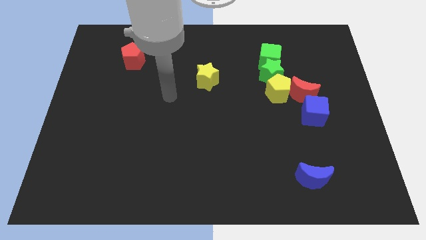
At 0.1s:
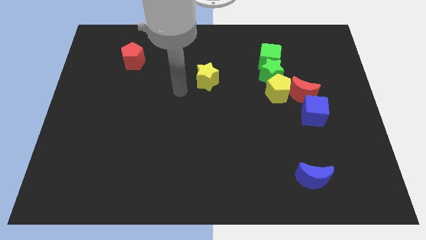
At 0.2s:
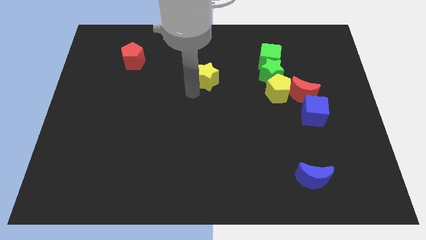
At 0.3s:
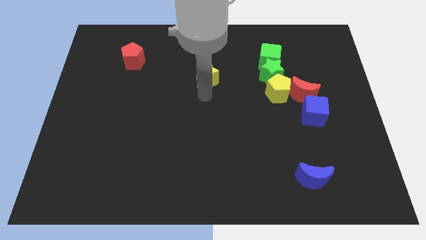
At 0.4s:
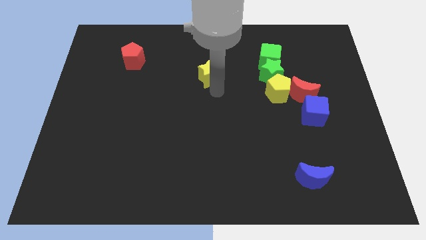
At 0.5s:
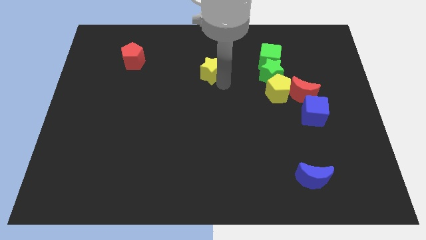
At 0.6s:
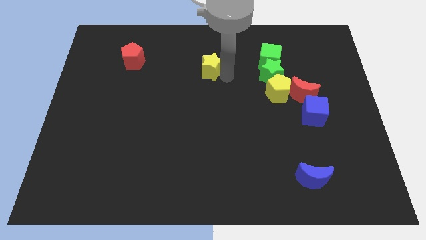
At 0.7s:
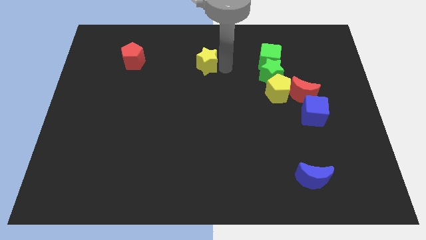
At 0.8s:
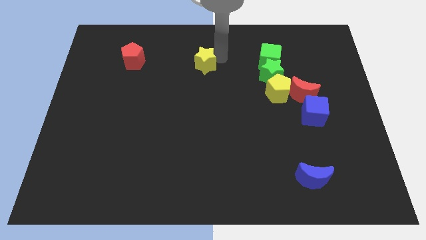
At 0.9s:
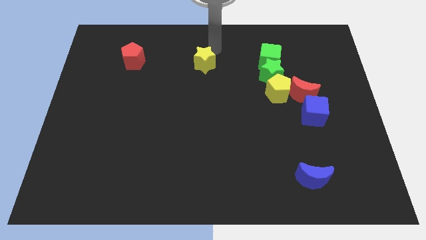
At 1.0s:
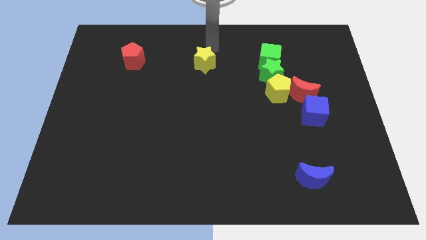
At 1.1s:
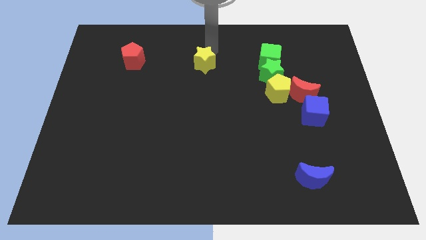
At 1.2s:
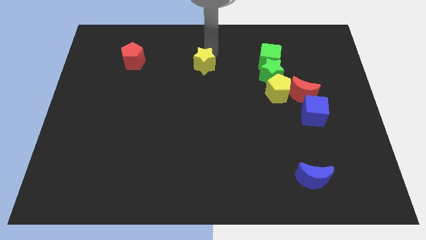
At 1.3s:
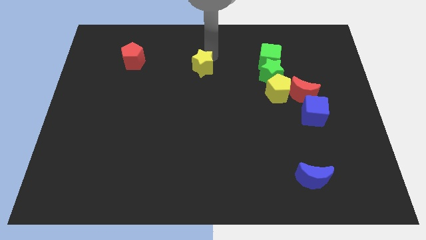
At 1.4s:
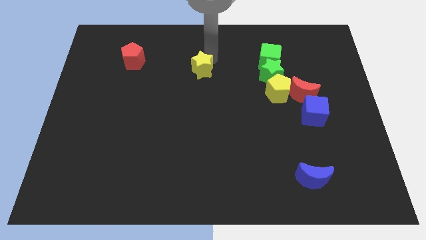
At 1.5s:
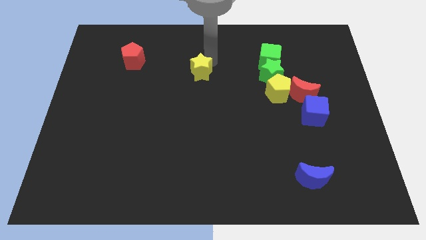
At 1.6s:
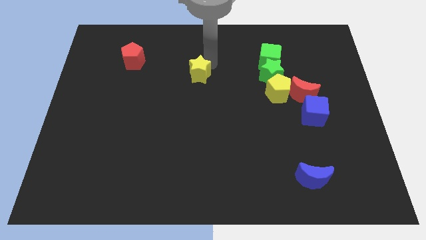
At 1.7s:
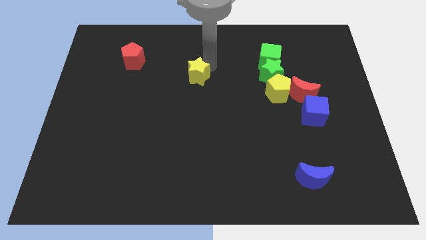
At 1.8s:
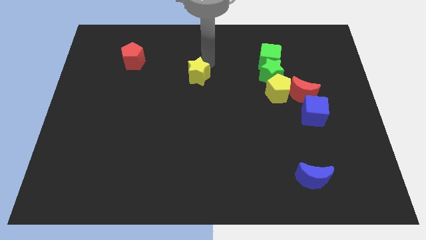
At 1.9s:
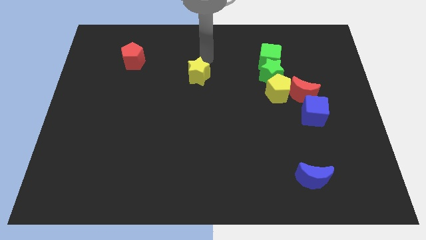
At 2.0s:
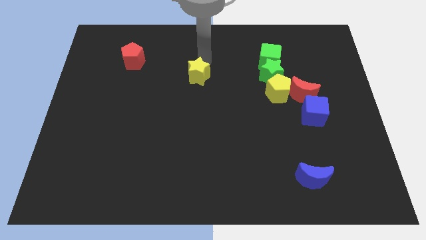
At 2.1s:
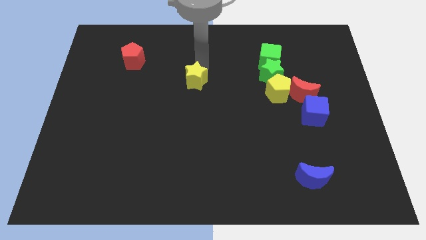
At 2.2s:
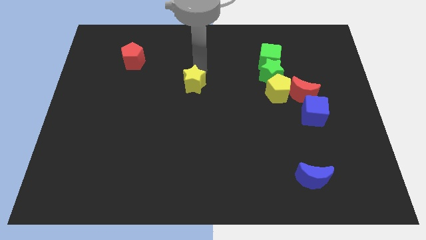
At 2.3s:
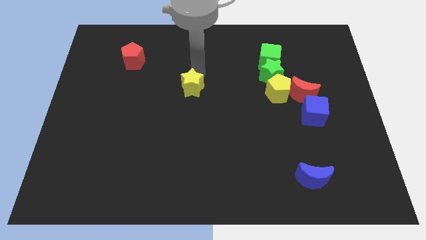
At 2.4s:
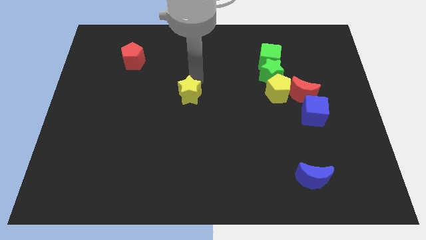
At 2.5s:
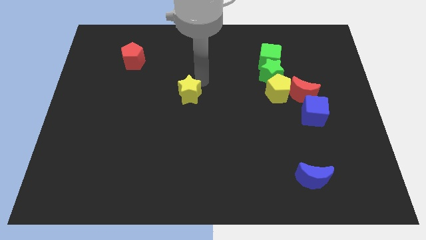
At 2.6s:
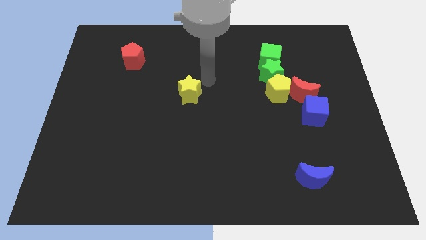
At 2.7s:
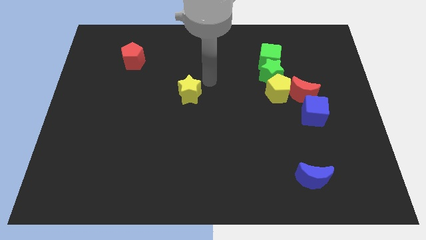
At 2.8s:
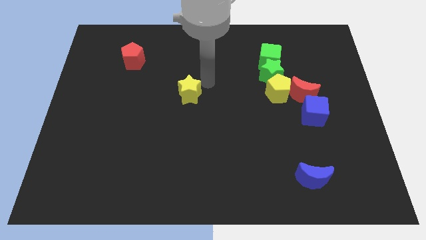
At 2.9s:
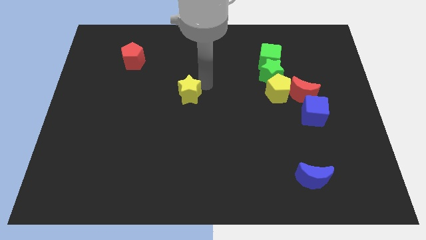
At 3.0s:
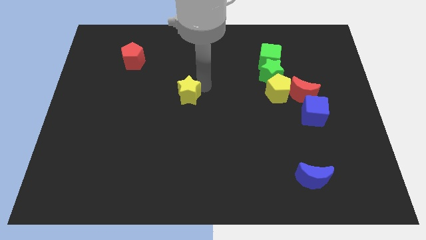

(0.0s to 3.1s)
slightly move the yellow star downwards and left diagonally

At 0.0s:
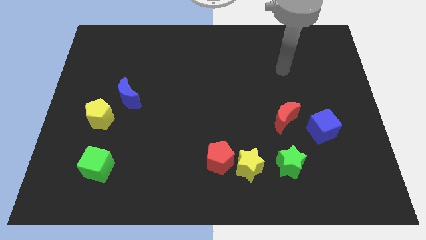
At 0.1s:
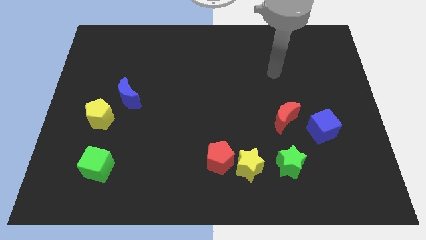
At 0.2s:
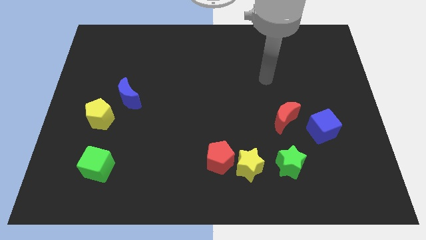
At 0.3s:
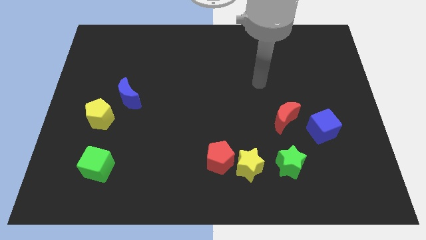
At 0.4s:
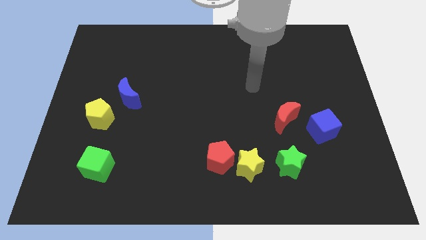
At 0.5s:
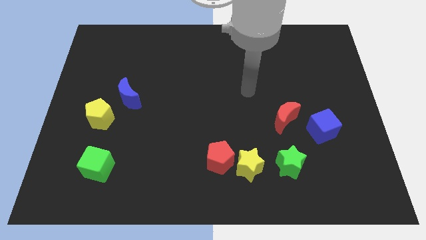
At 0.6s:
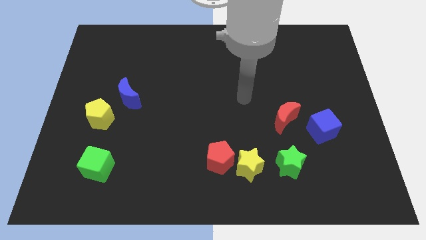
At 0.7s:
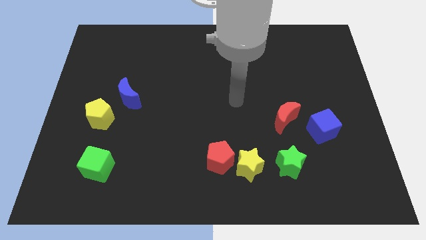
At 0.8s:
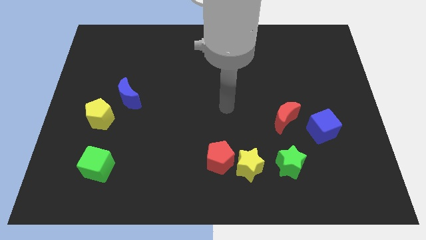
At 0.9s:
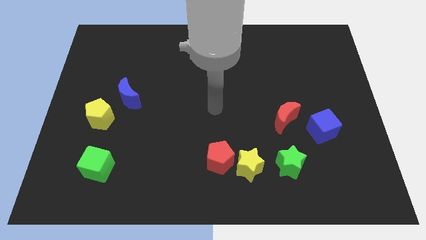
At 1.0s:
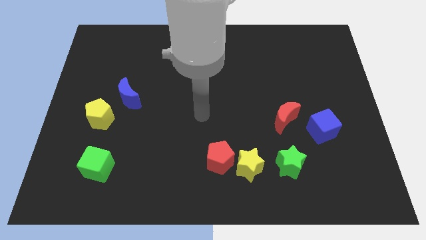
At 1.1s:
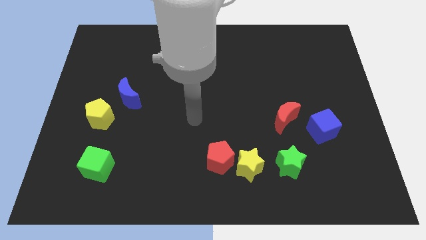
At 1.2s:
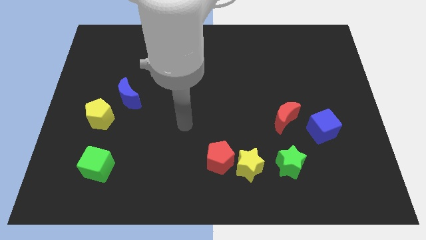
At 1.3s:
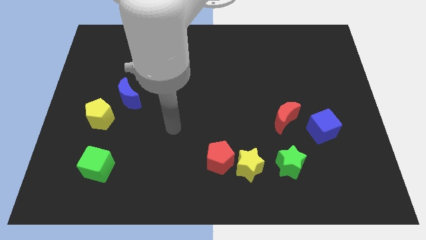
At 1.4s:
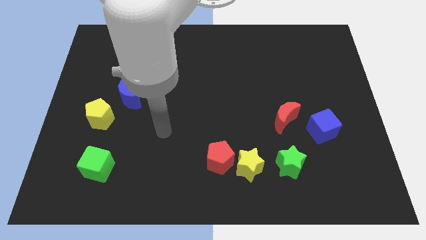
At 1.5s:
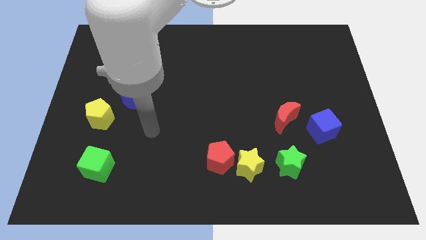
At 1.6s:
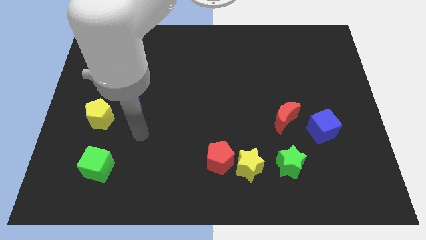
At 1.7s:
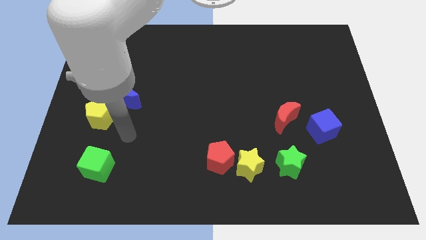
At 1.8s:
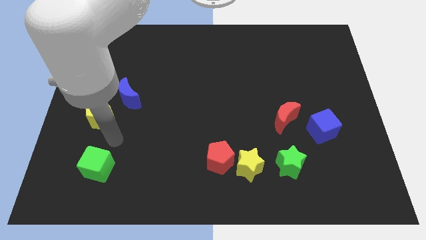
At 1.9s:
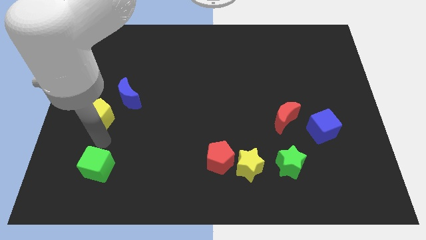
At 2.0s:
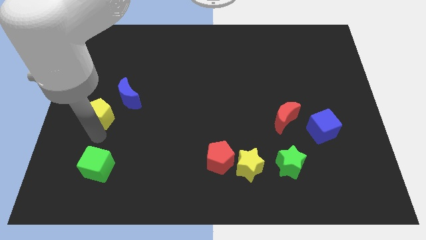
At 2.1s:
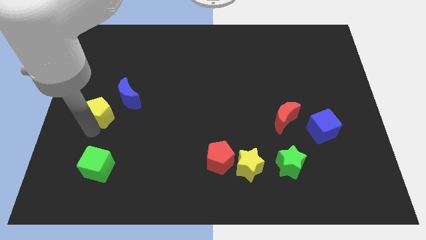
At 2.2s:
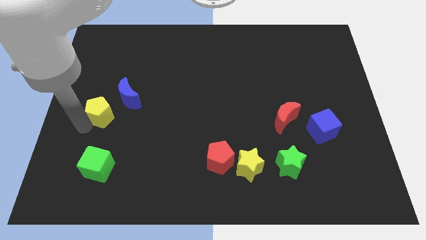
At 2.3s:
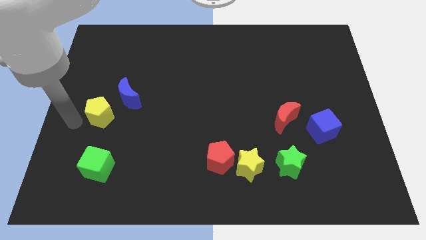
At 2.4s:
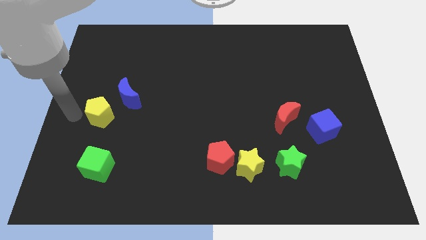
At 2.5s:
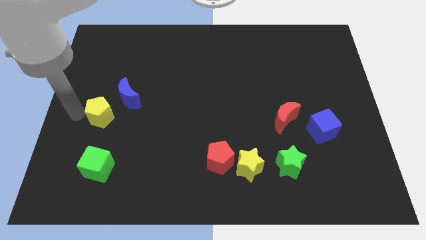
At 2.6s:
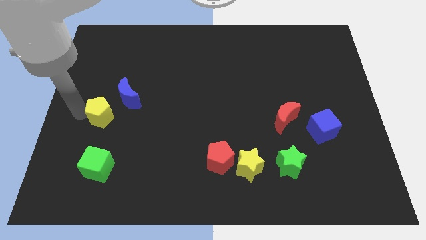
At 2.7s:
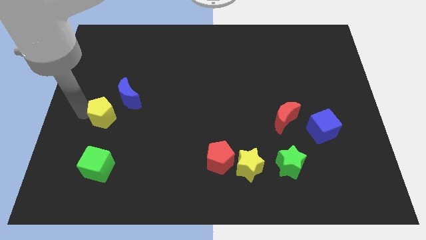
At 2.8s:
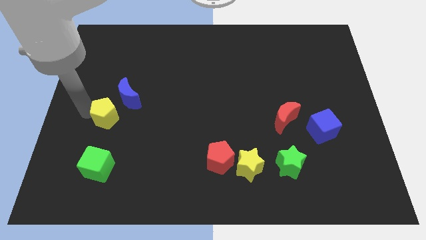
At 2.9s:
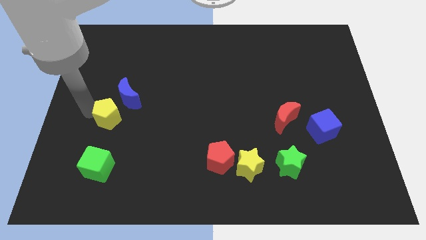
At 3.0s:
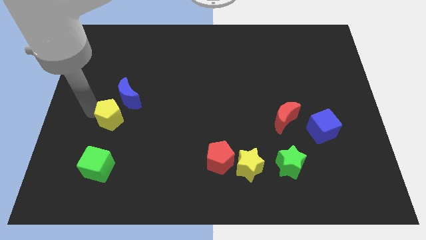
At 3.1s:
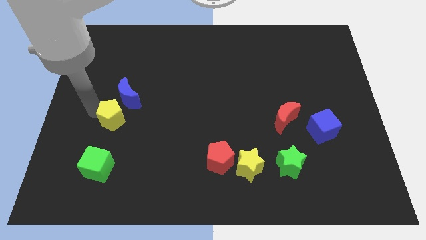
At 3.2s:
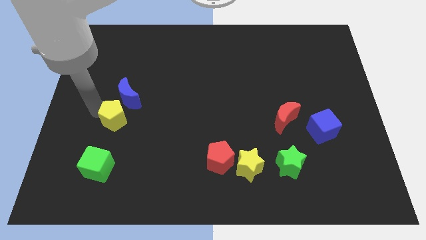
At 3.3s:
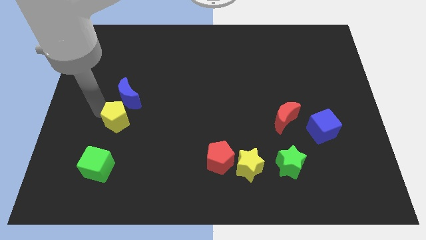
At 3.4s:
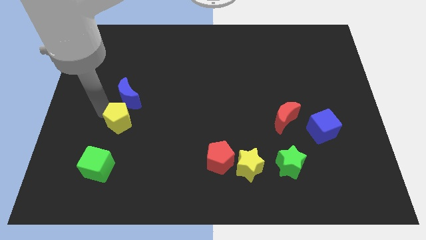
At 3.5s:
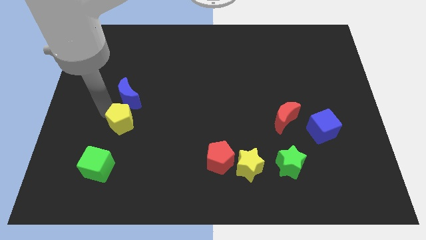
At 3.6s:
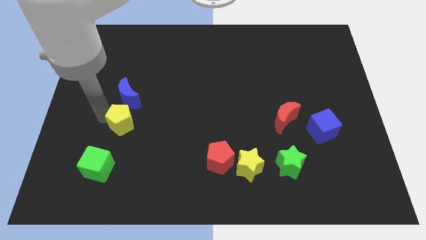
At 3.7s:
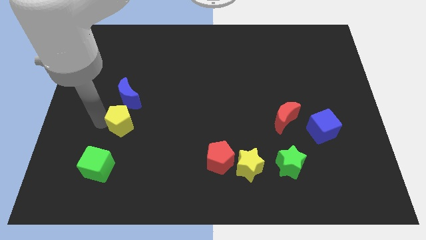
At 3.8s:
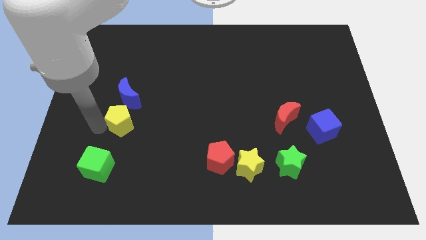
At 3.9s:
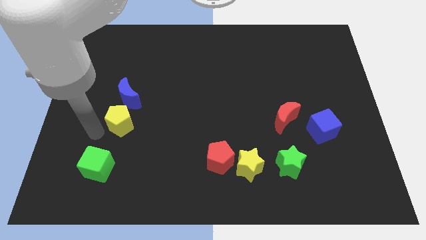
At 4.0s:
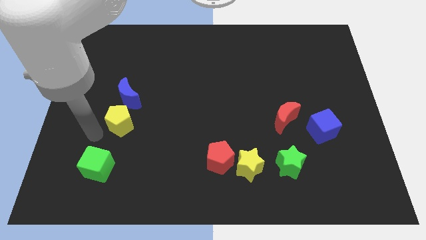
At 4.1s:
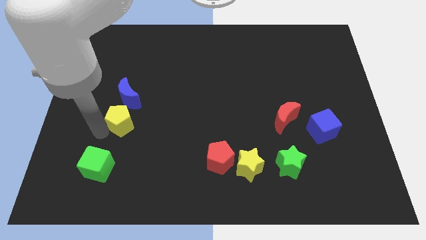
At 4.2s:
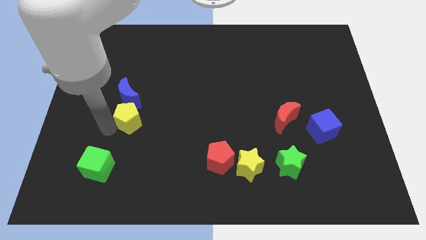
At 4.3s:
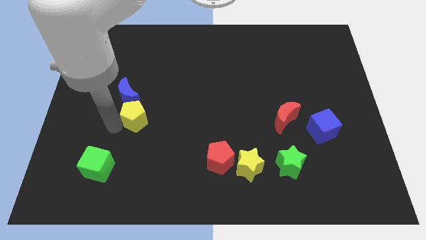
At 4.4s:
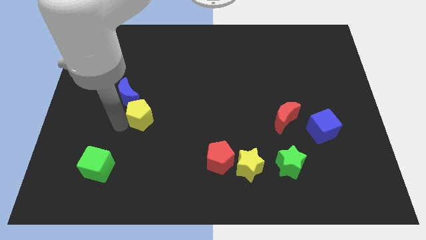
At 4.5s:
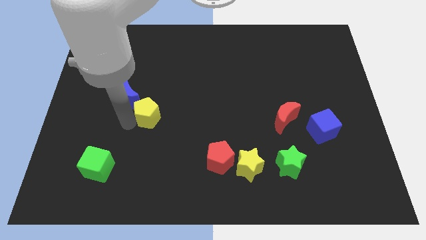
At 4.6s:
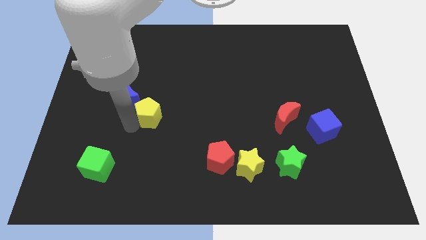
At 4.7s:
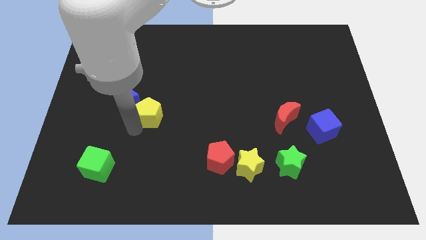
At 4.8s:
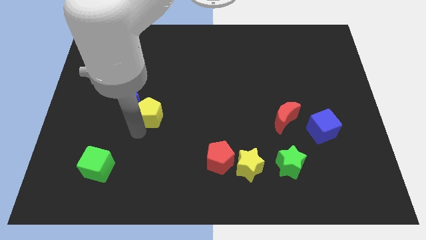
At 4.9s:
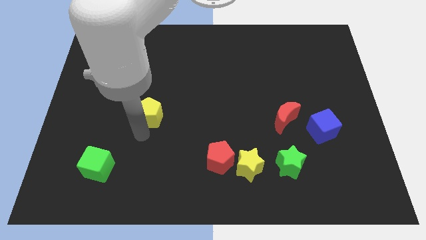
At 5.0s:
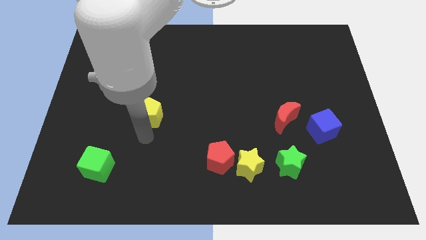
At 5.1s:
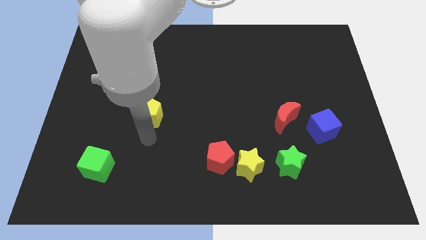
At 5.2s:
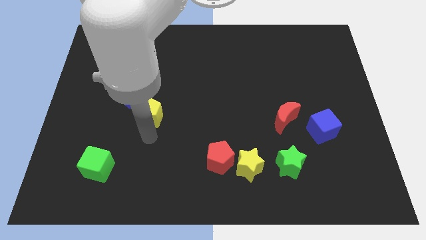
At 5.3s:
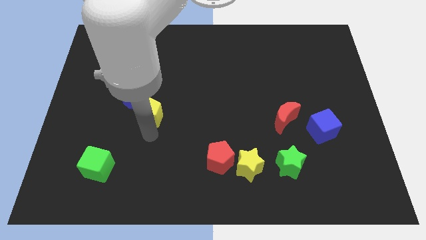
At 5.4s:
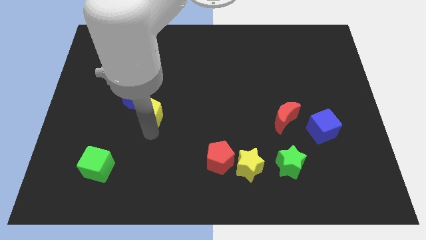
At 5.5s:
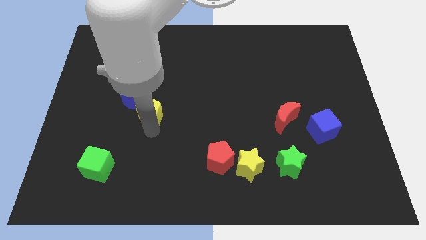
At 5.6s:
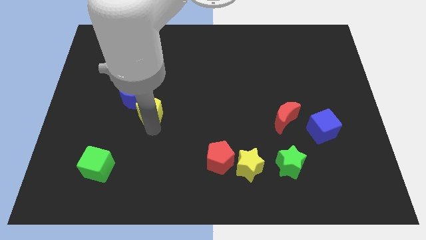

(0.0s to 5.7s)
move the yellow pentagon upwards and to the right a little
